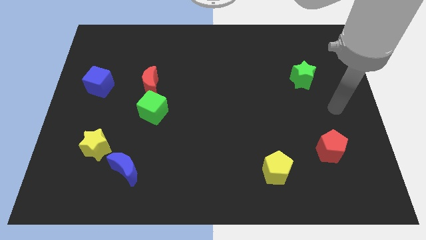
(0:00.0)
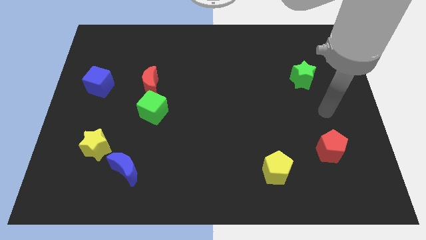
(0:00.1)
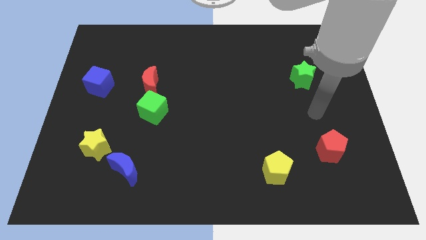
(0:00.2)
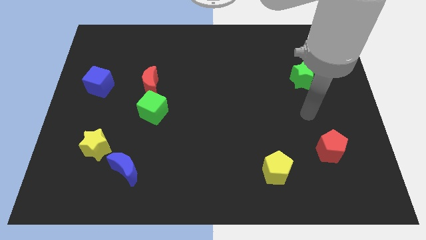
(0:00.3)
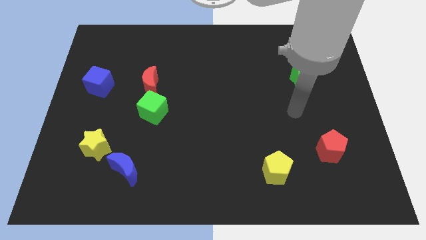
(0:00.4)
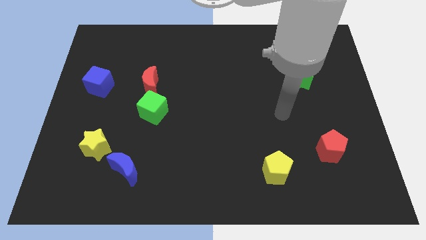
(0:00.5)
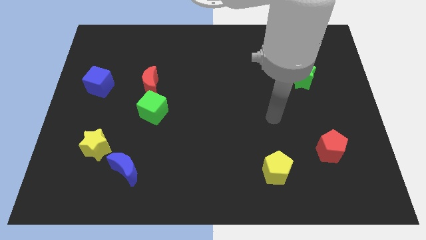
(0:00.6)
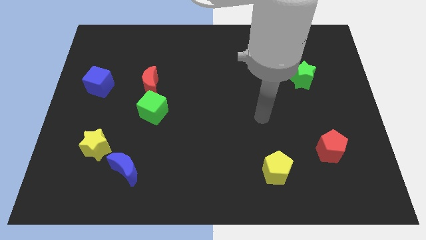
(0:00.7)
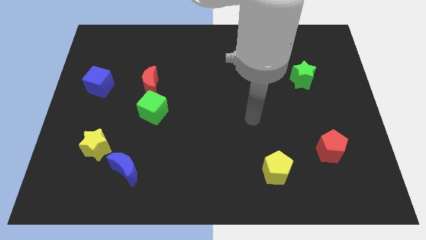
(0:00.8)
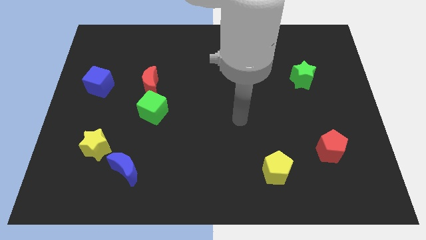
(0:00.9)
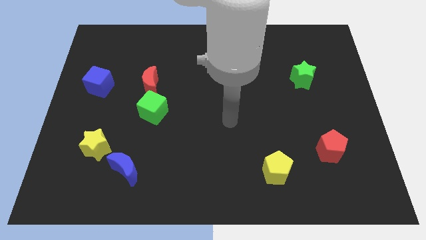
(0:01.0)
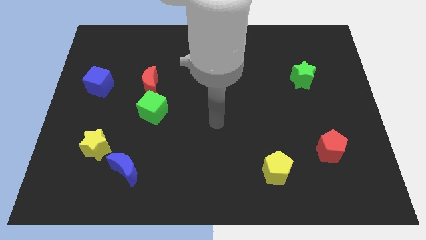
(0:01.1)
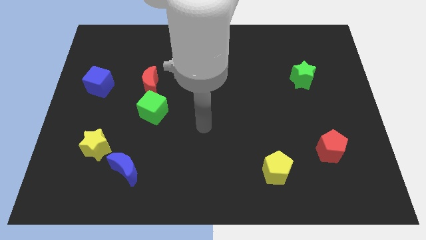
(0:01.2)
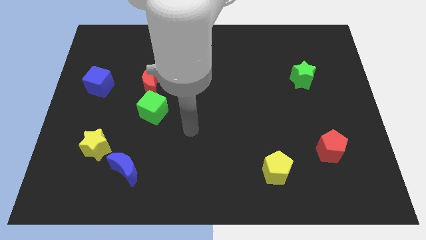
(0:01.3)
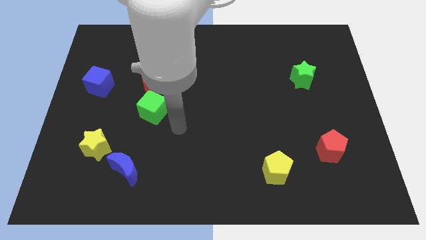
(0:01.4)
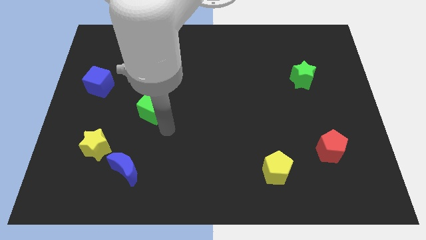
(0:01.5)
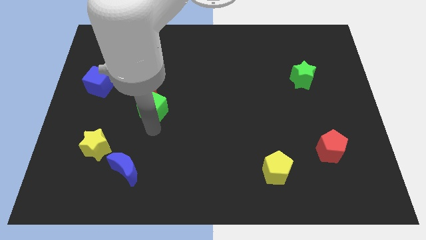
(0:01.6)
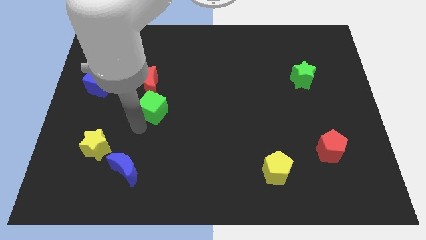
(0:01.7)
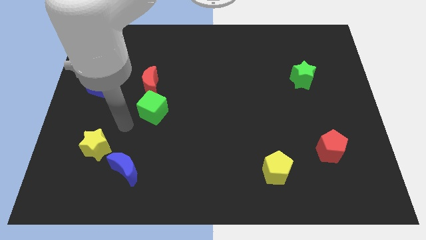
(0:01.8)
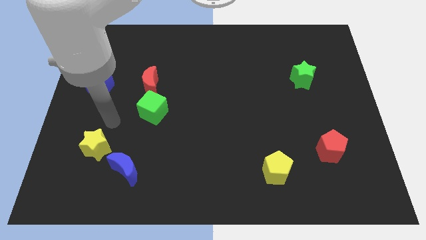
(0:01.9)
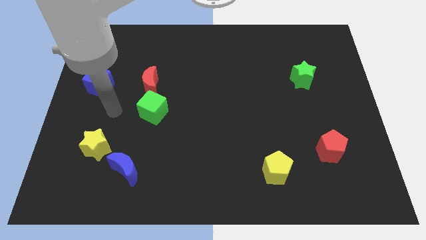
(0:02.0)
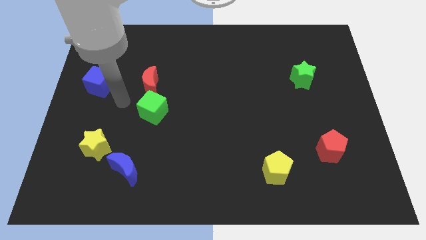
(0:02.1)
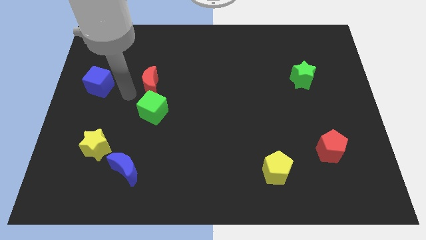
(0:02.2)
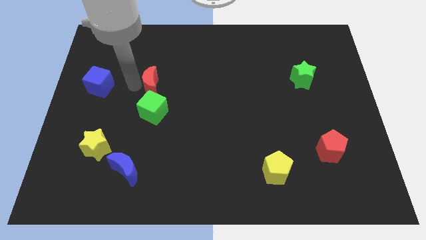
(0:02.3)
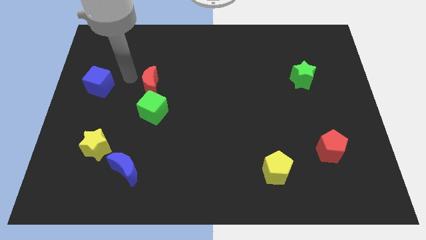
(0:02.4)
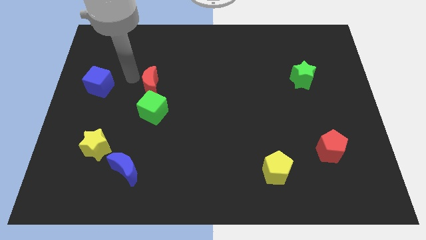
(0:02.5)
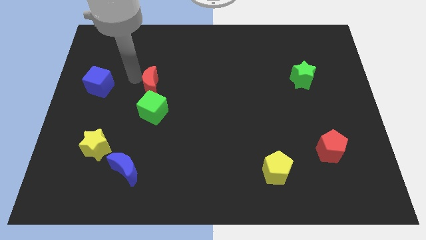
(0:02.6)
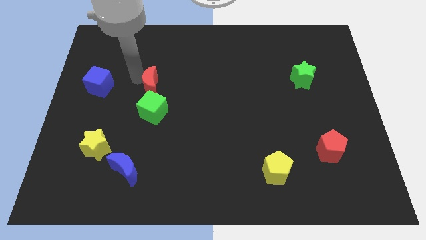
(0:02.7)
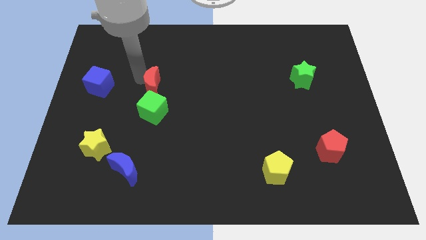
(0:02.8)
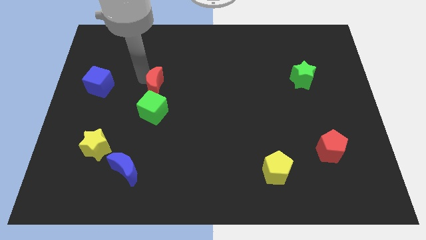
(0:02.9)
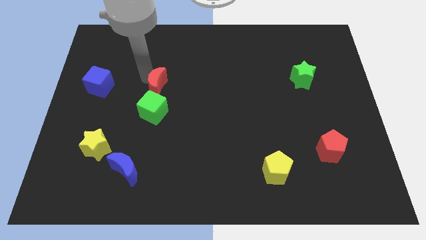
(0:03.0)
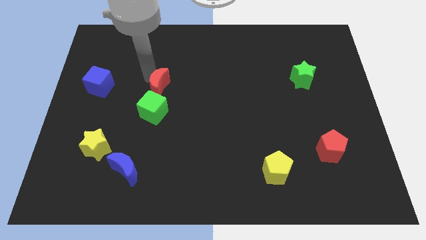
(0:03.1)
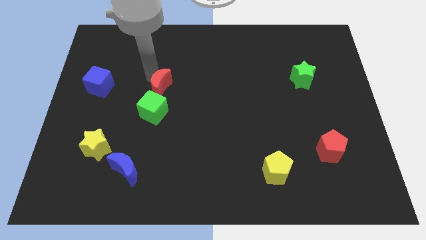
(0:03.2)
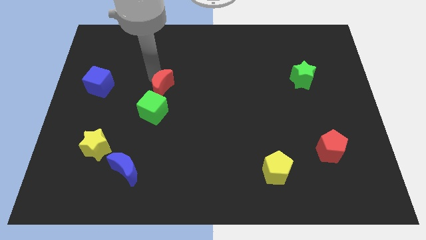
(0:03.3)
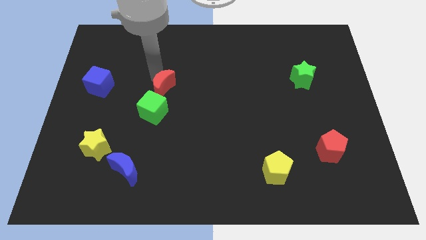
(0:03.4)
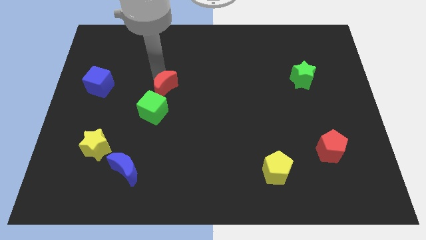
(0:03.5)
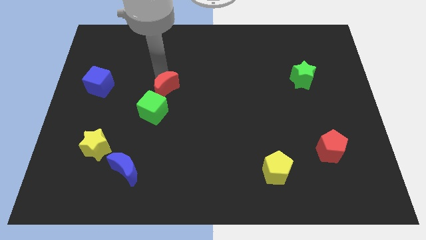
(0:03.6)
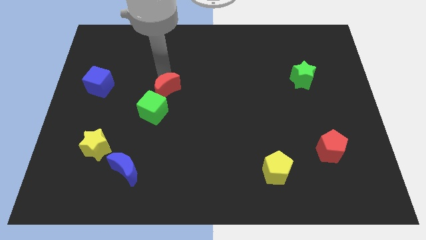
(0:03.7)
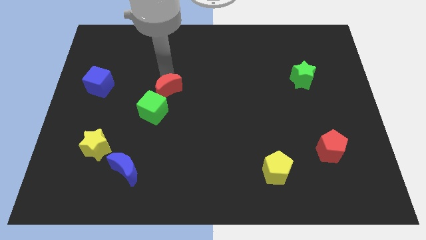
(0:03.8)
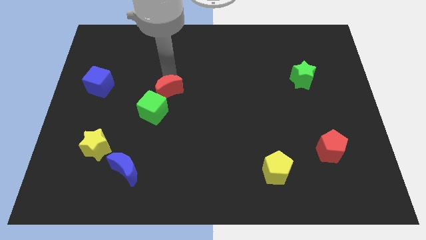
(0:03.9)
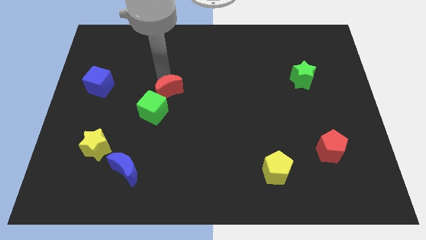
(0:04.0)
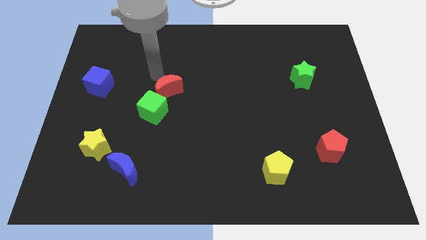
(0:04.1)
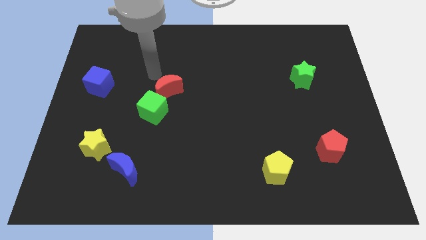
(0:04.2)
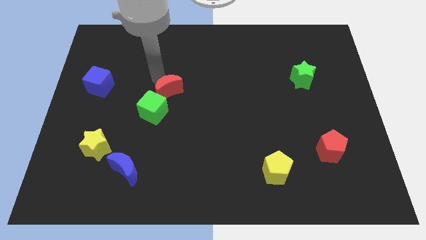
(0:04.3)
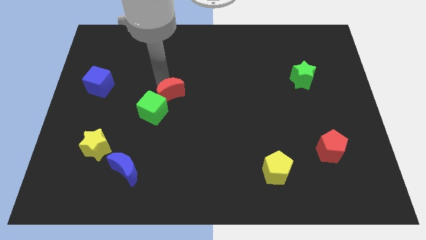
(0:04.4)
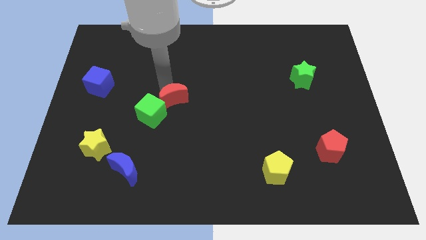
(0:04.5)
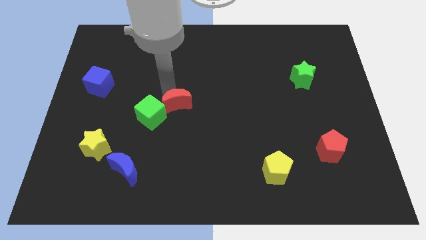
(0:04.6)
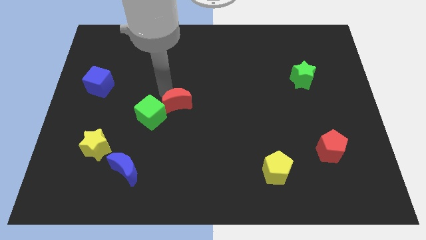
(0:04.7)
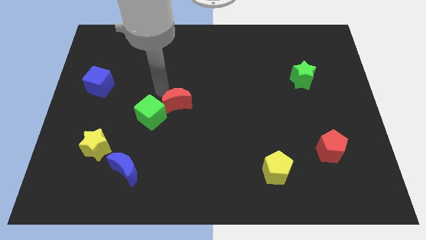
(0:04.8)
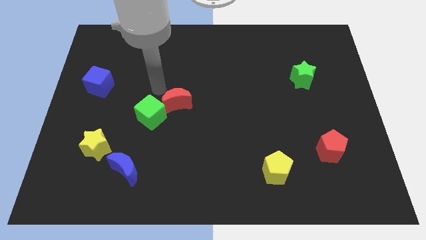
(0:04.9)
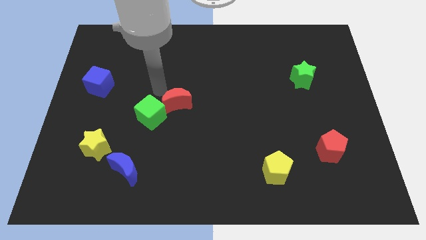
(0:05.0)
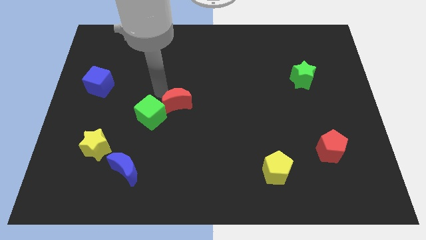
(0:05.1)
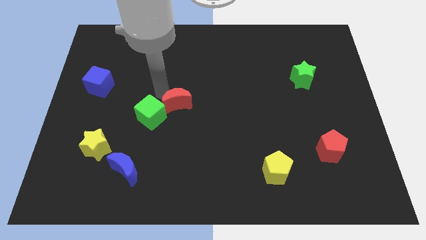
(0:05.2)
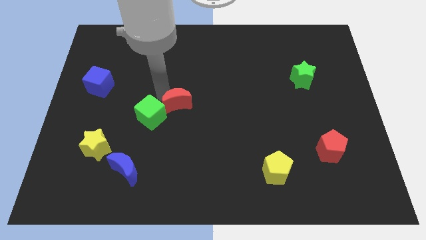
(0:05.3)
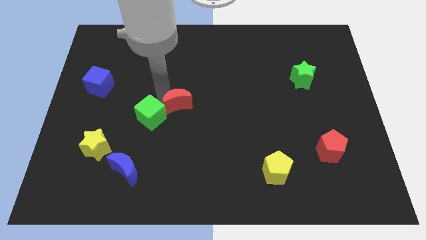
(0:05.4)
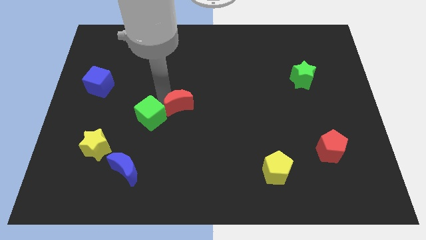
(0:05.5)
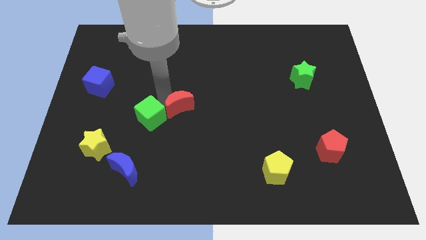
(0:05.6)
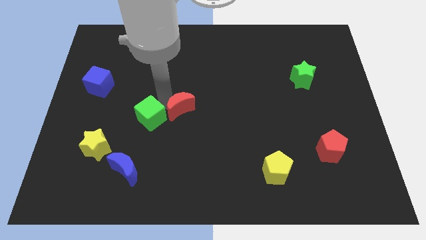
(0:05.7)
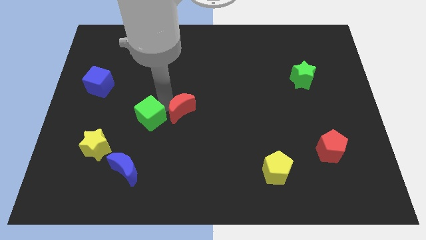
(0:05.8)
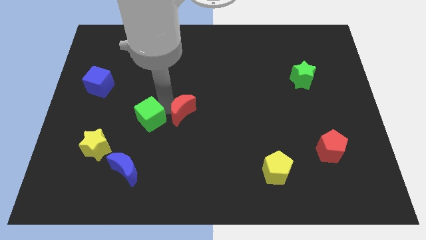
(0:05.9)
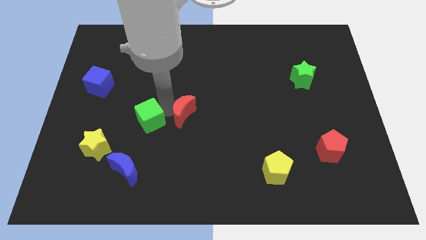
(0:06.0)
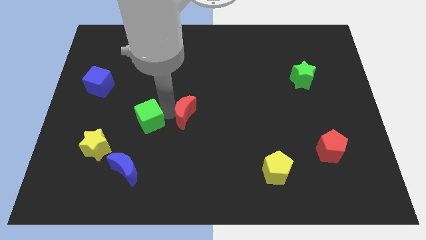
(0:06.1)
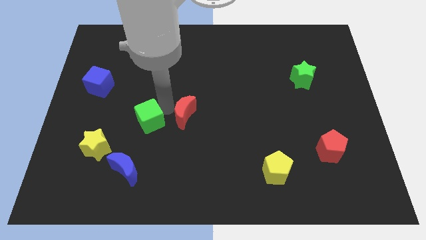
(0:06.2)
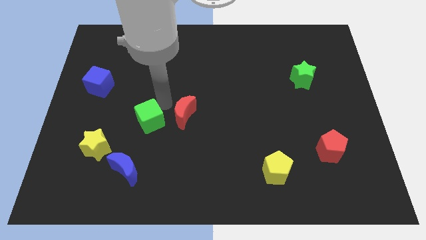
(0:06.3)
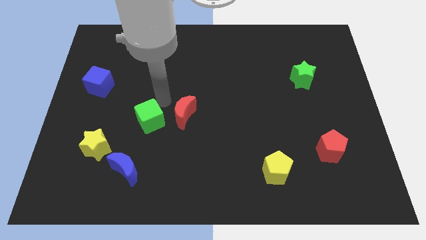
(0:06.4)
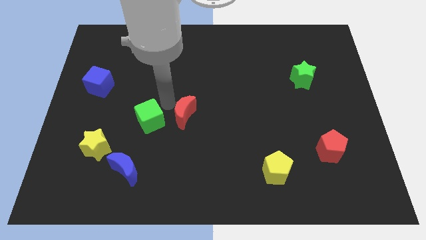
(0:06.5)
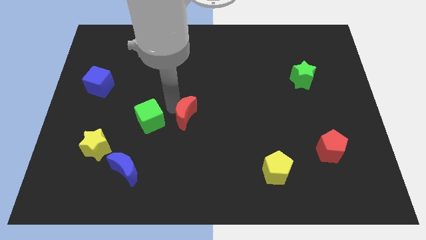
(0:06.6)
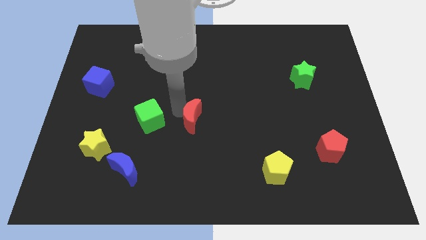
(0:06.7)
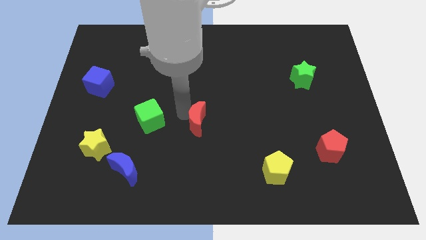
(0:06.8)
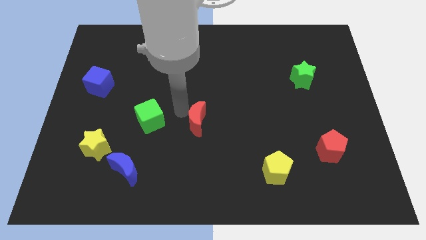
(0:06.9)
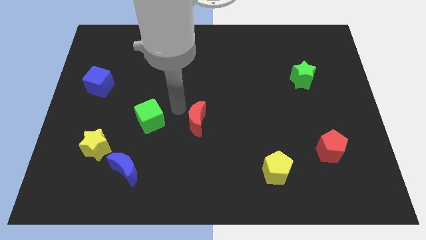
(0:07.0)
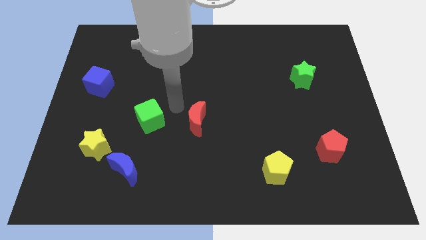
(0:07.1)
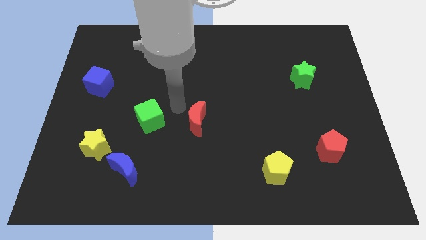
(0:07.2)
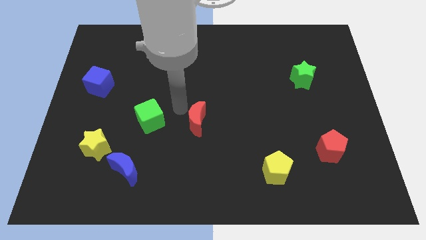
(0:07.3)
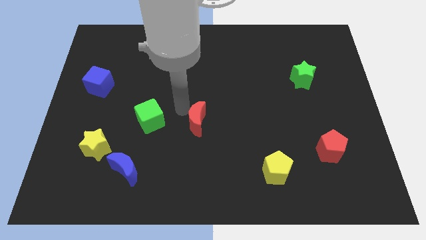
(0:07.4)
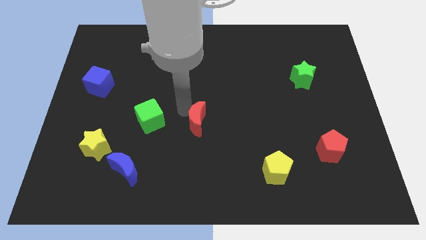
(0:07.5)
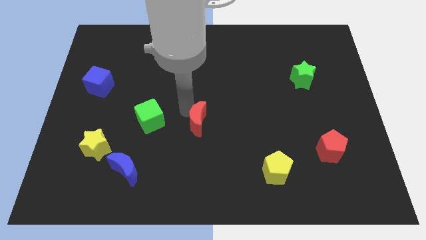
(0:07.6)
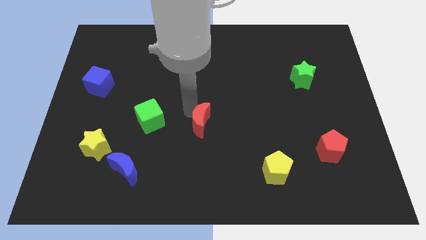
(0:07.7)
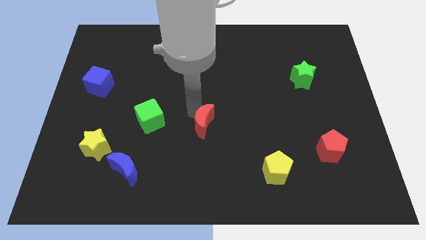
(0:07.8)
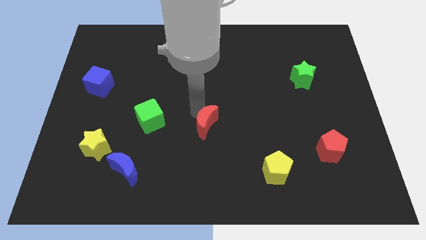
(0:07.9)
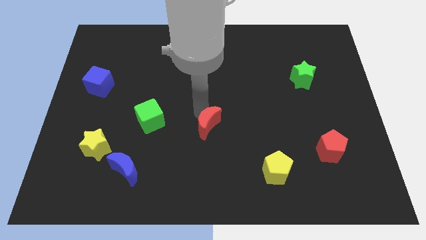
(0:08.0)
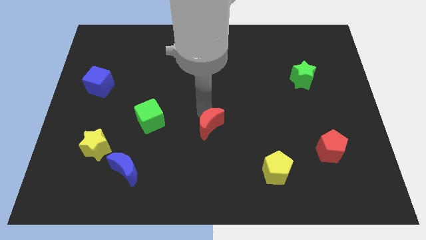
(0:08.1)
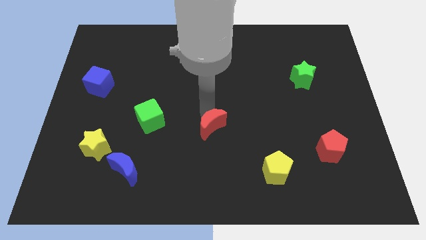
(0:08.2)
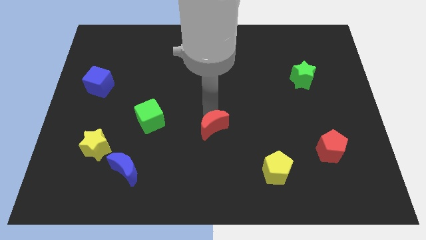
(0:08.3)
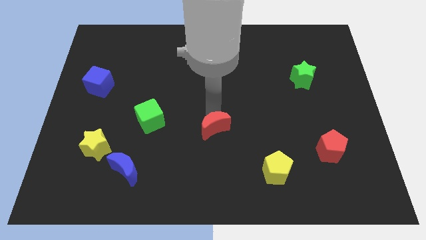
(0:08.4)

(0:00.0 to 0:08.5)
move the red moon down and right diagonally
